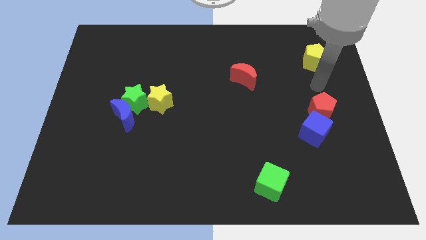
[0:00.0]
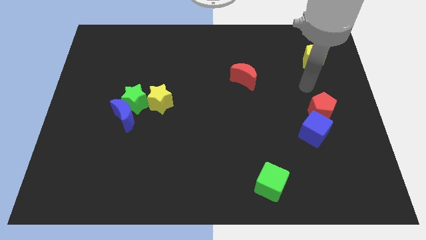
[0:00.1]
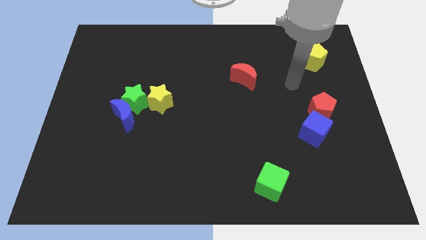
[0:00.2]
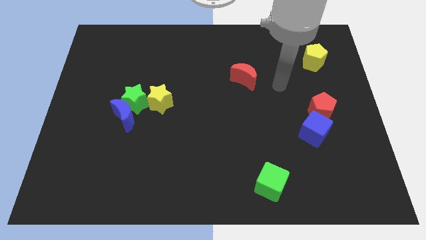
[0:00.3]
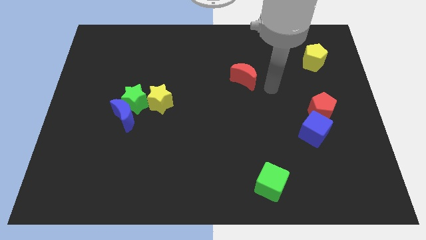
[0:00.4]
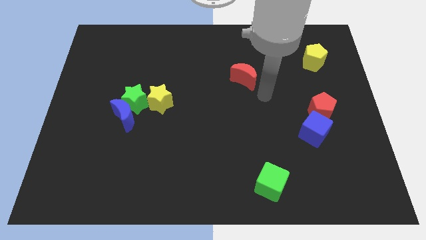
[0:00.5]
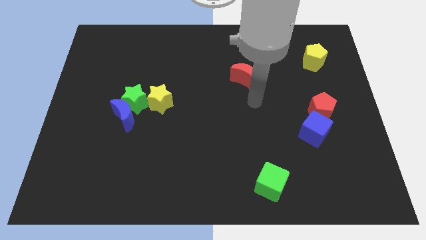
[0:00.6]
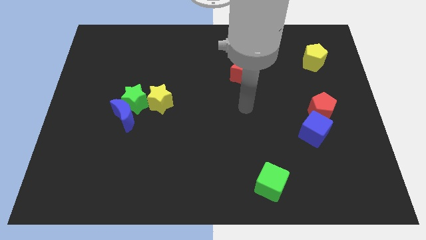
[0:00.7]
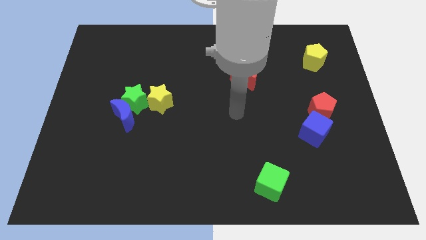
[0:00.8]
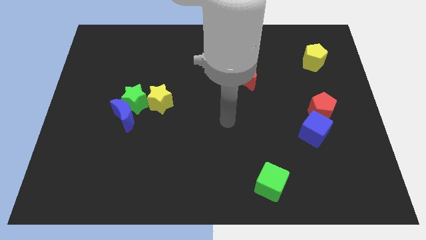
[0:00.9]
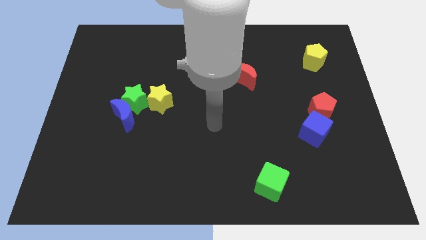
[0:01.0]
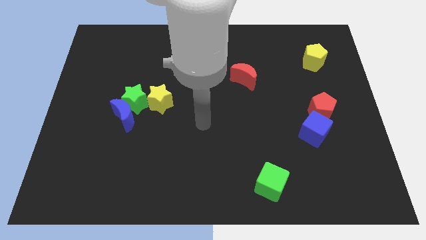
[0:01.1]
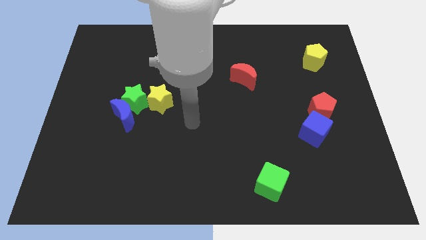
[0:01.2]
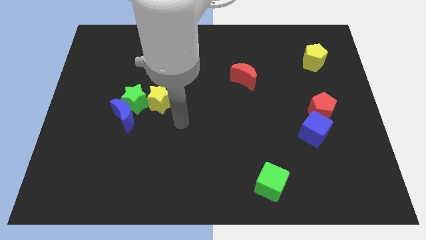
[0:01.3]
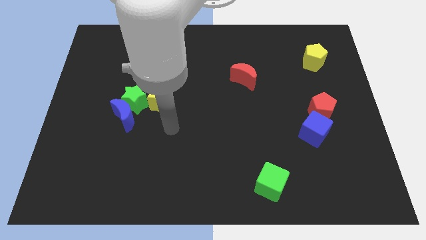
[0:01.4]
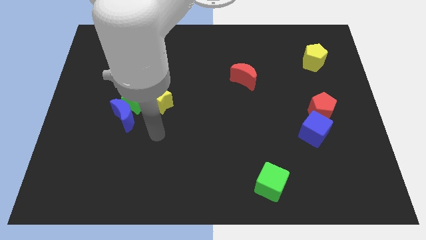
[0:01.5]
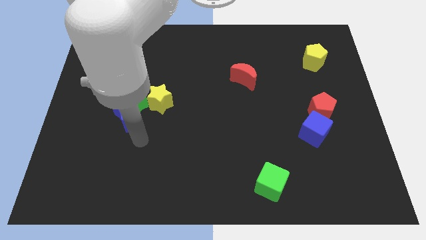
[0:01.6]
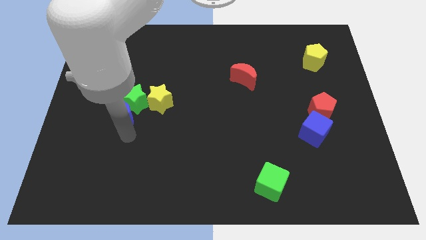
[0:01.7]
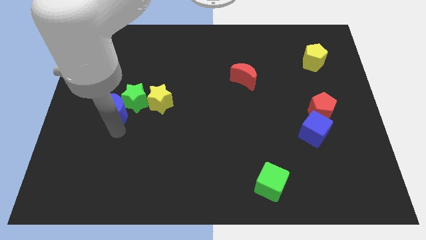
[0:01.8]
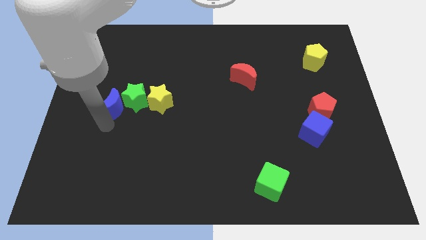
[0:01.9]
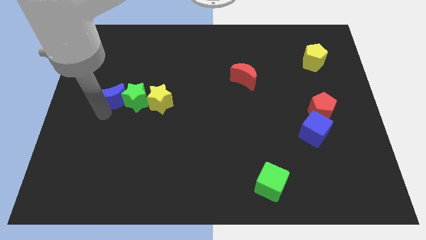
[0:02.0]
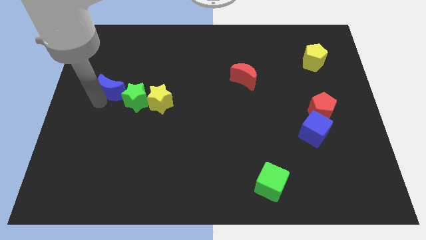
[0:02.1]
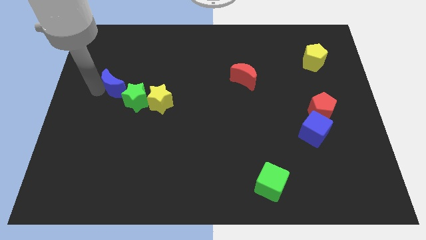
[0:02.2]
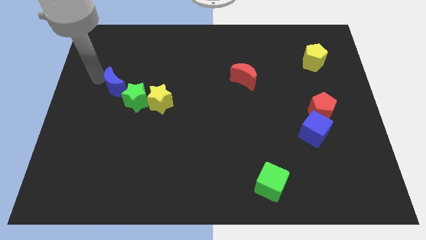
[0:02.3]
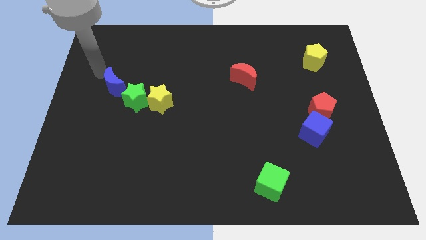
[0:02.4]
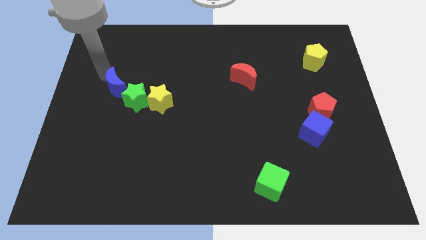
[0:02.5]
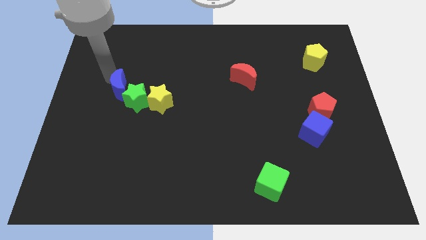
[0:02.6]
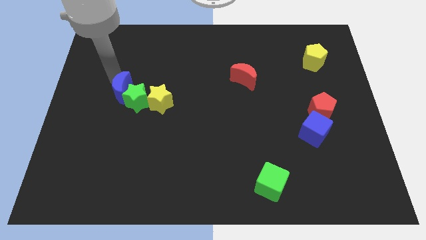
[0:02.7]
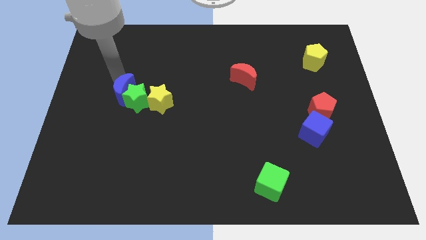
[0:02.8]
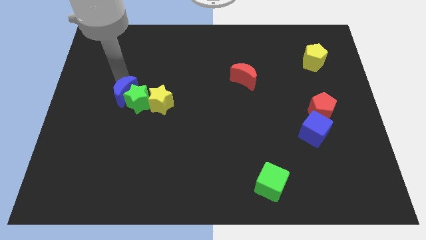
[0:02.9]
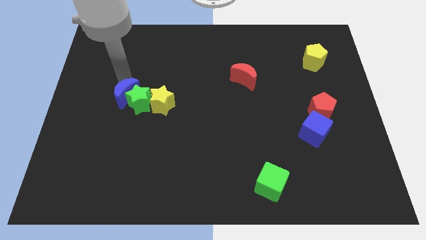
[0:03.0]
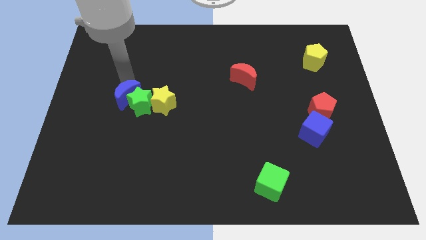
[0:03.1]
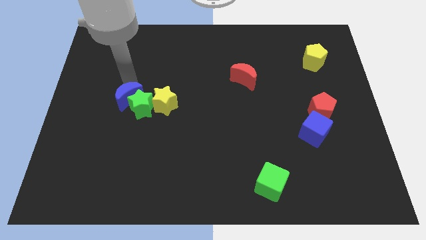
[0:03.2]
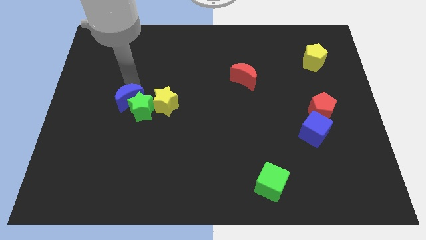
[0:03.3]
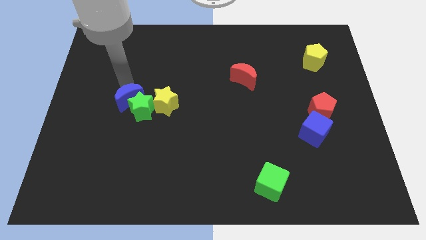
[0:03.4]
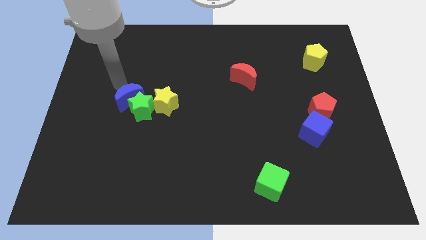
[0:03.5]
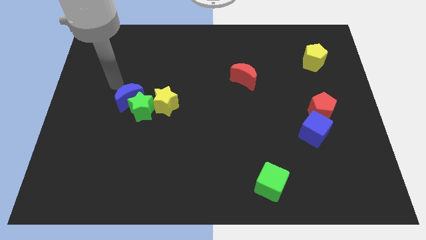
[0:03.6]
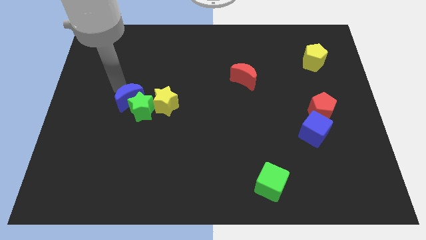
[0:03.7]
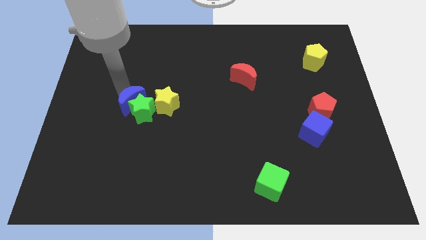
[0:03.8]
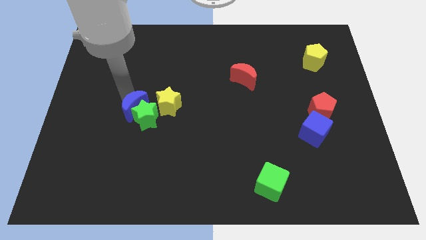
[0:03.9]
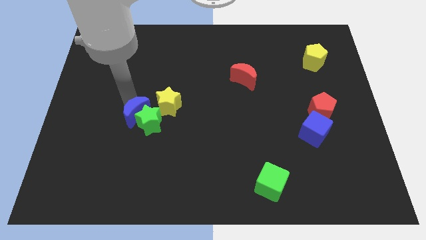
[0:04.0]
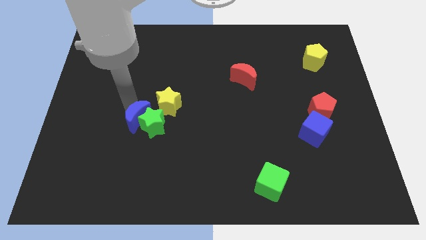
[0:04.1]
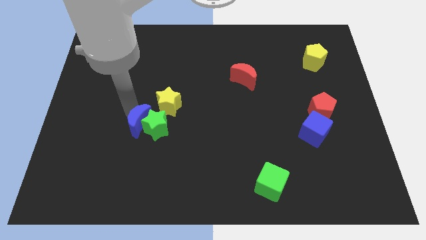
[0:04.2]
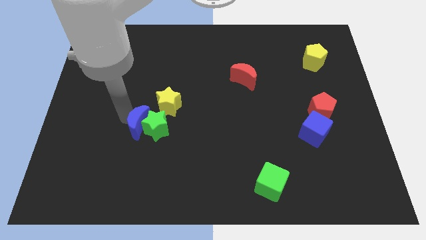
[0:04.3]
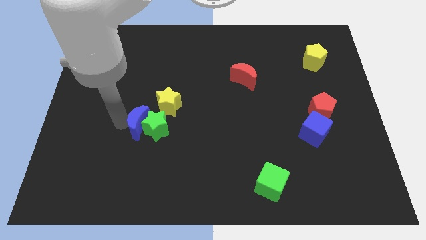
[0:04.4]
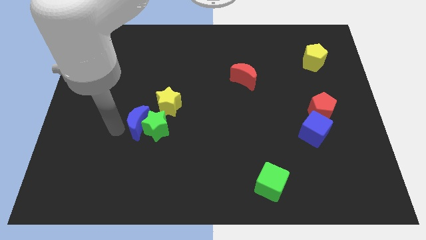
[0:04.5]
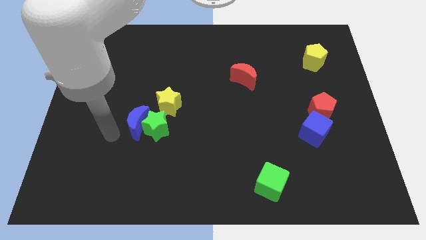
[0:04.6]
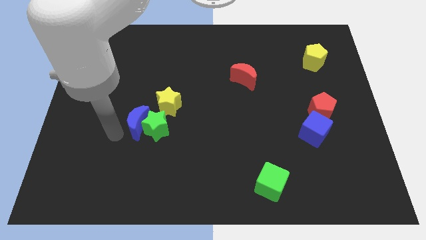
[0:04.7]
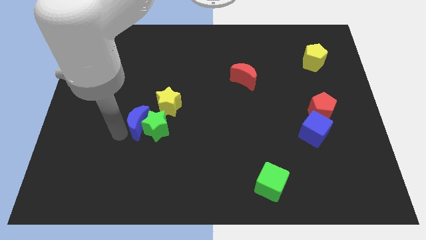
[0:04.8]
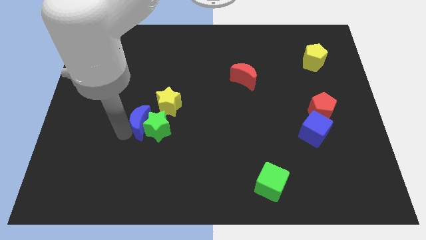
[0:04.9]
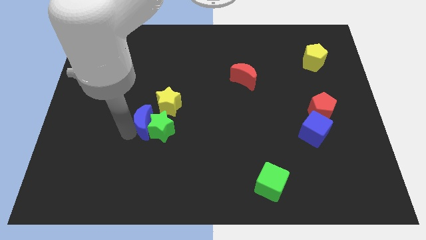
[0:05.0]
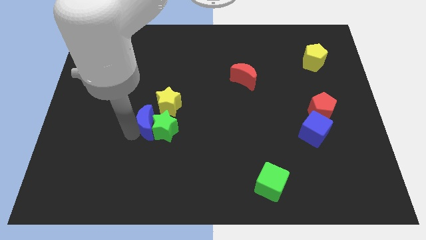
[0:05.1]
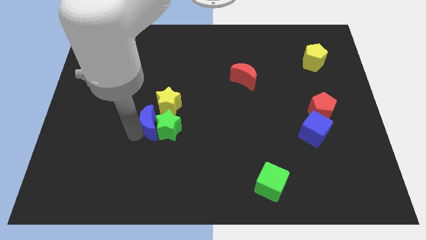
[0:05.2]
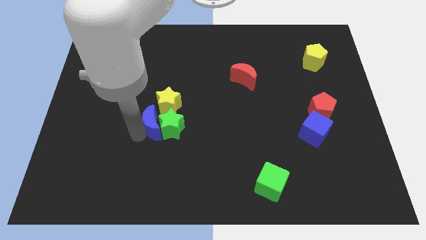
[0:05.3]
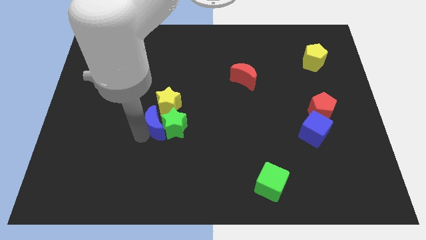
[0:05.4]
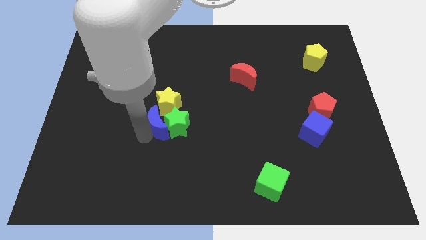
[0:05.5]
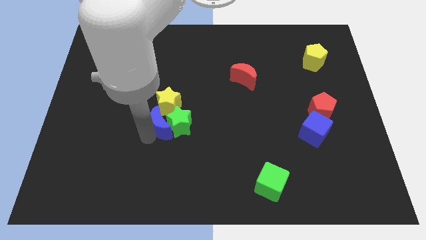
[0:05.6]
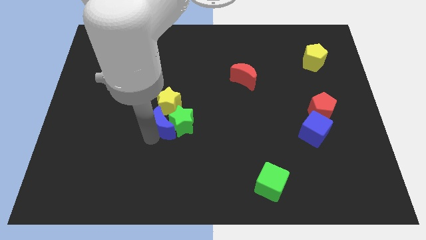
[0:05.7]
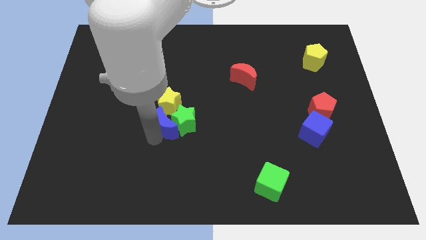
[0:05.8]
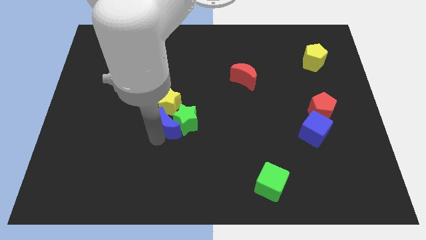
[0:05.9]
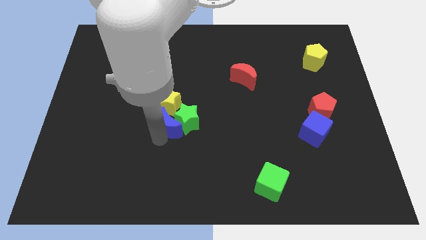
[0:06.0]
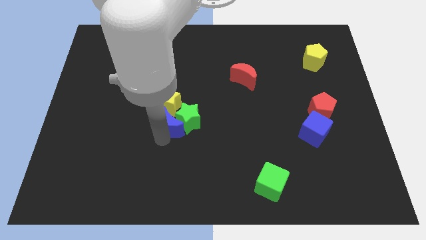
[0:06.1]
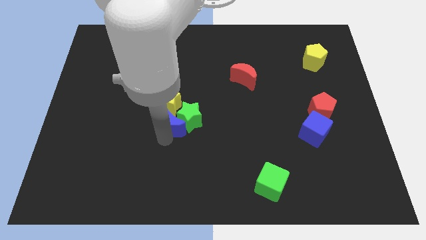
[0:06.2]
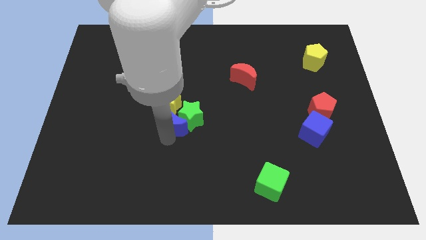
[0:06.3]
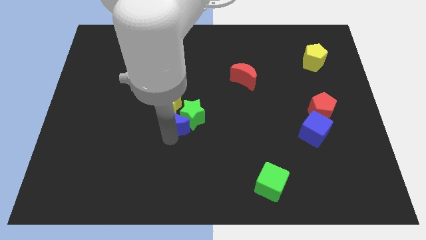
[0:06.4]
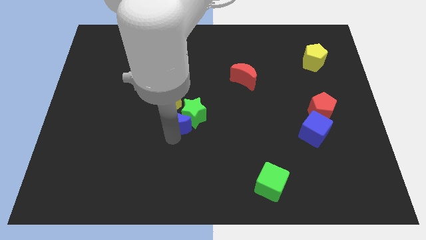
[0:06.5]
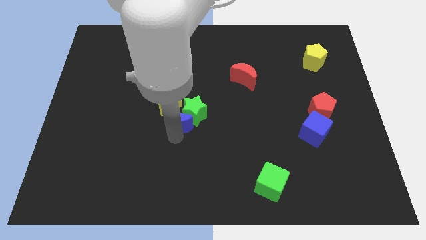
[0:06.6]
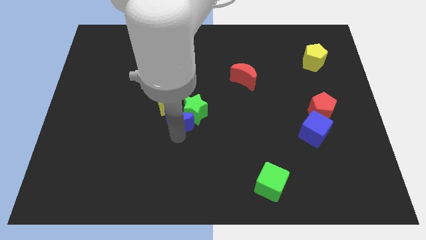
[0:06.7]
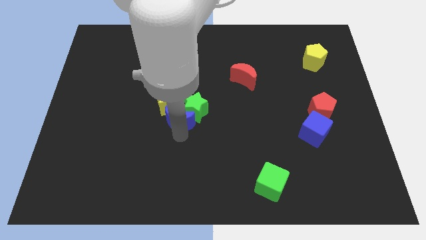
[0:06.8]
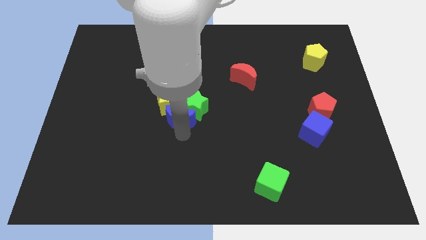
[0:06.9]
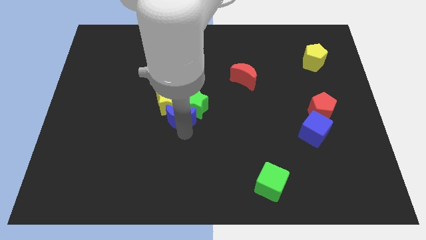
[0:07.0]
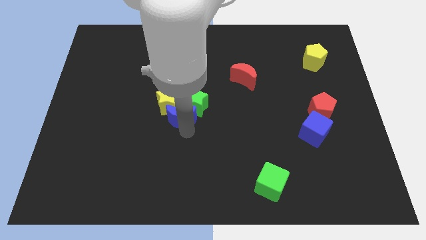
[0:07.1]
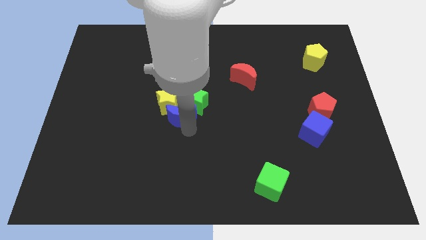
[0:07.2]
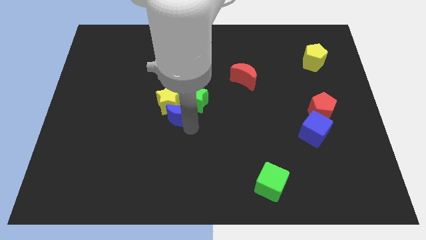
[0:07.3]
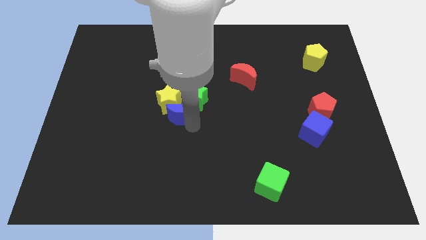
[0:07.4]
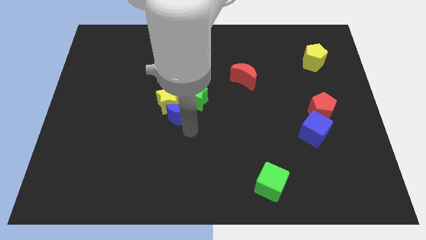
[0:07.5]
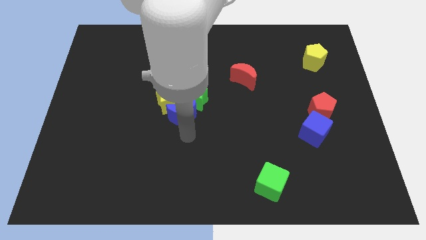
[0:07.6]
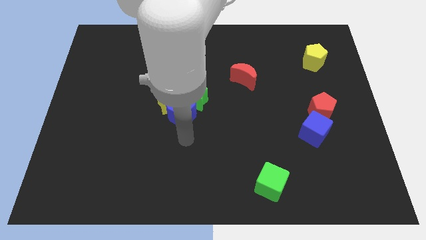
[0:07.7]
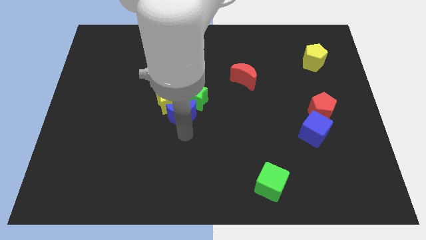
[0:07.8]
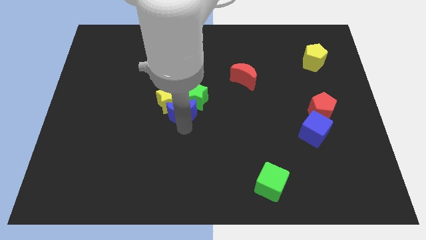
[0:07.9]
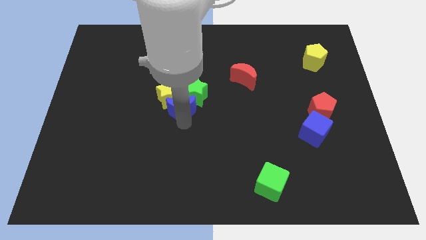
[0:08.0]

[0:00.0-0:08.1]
slightly slide the blue moon diagonally upwards and to the right
